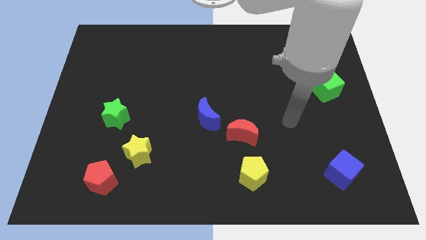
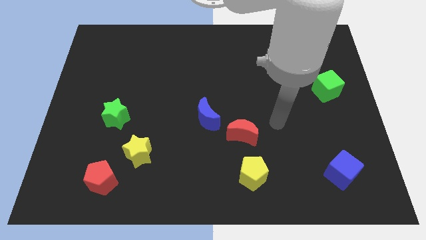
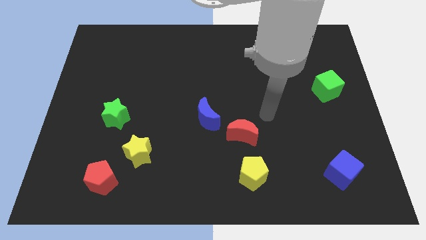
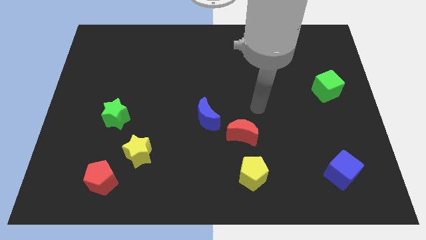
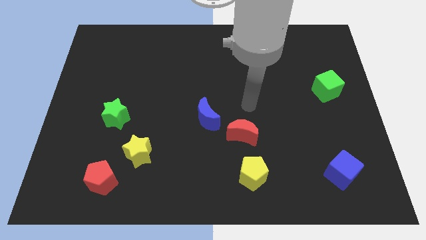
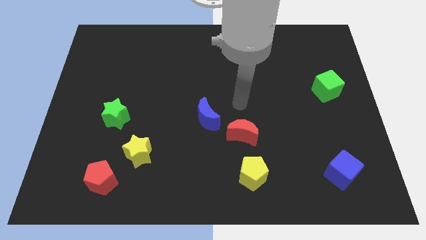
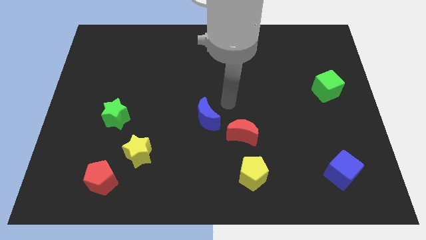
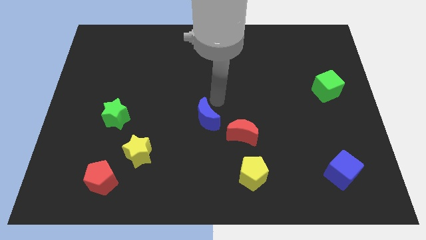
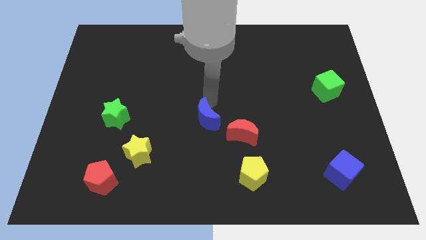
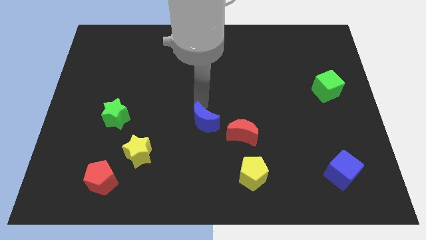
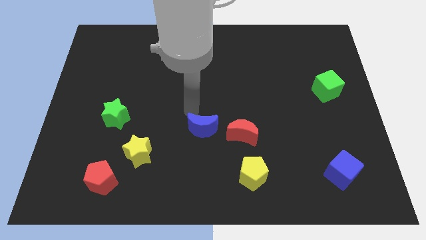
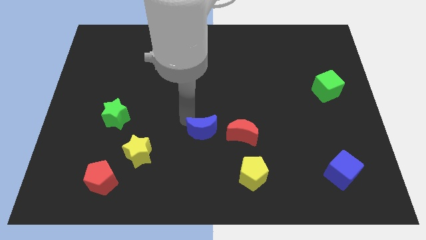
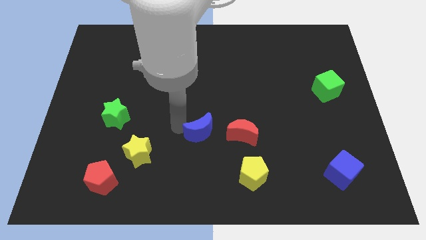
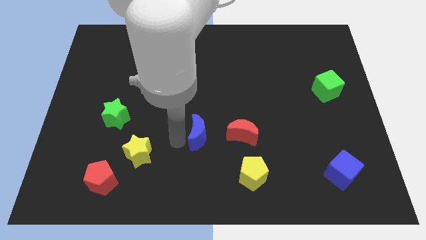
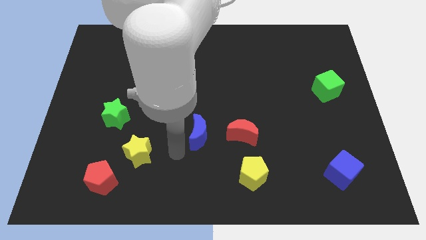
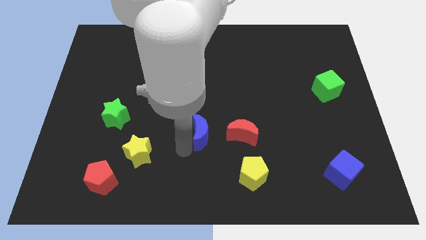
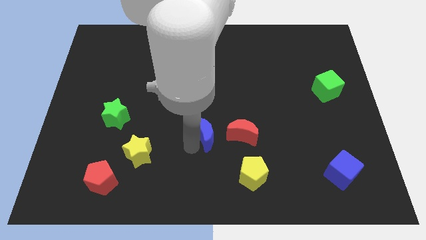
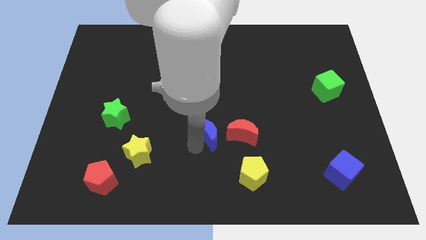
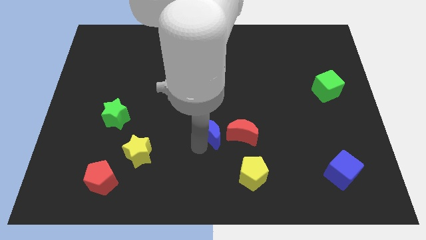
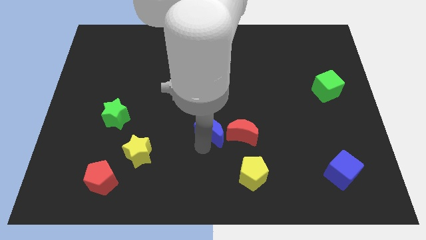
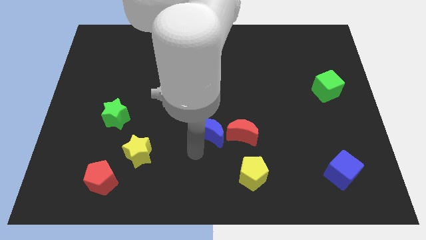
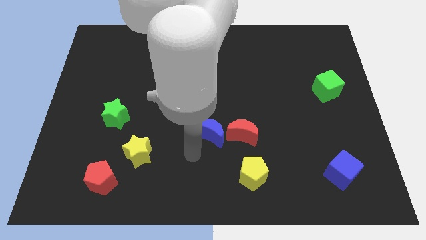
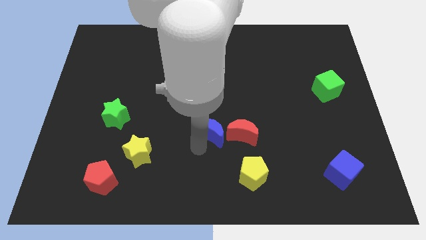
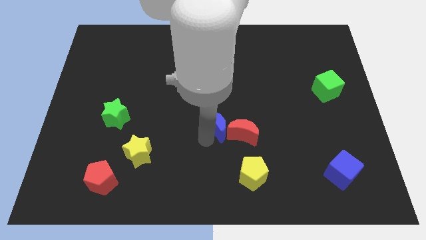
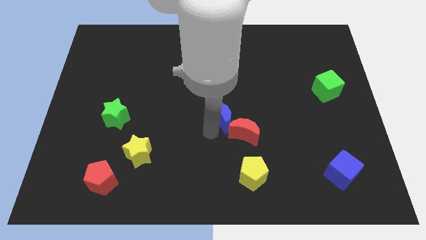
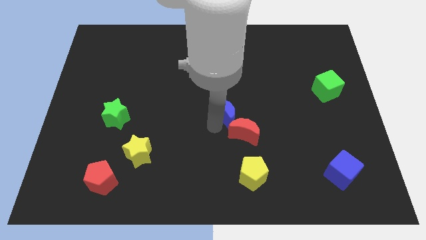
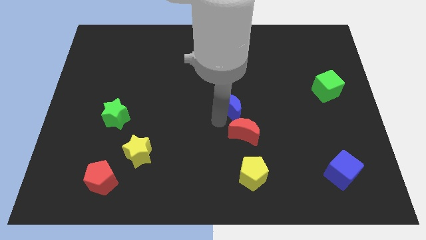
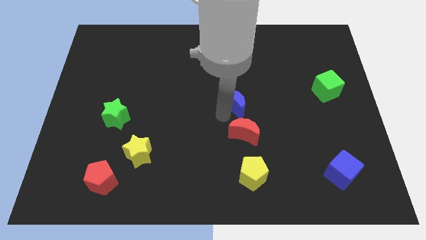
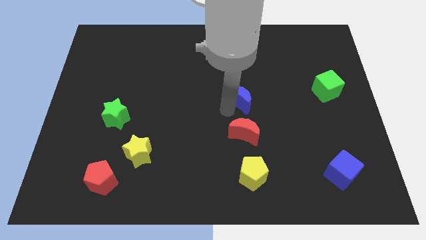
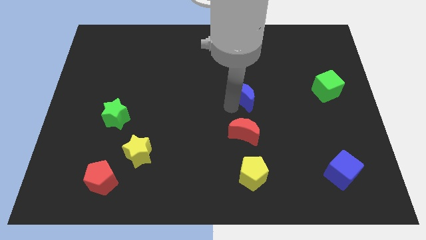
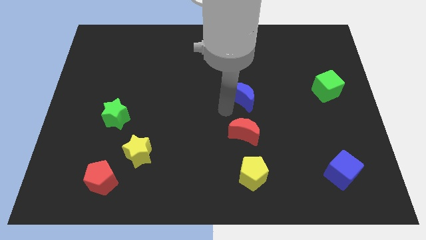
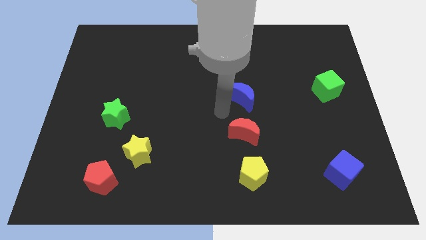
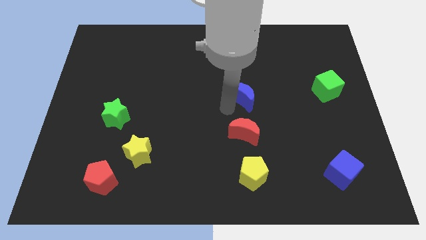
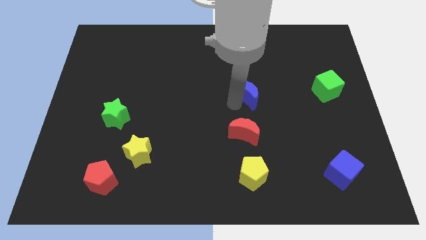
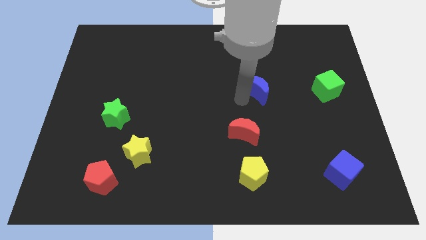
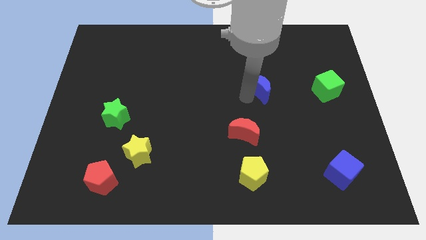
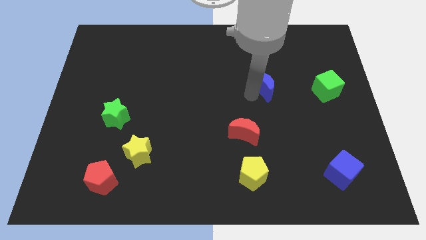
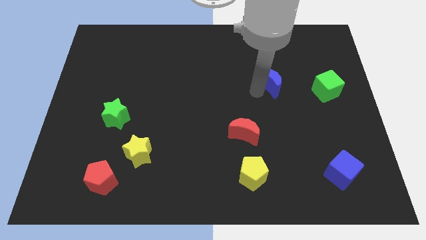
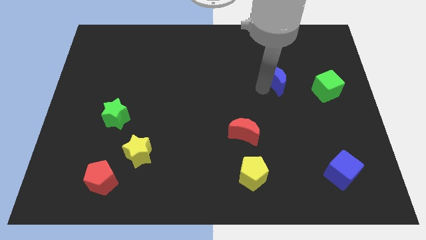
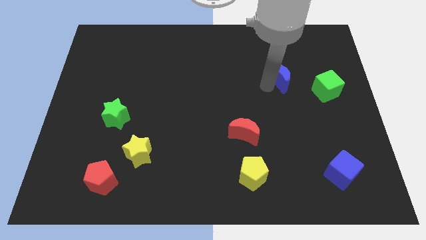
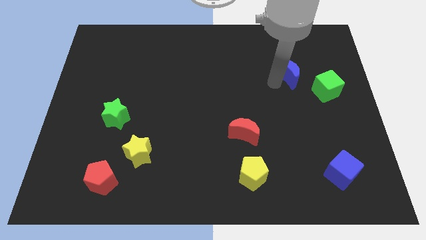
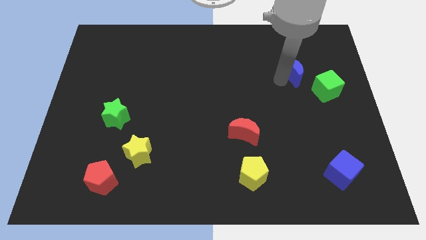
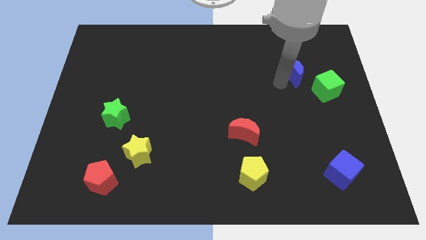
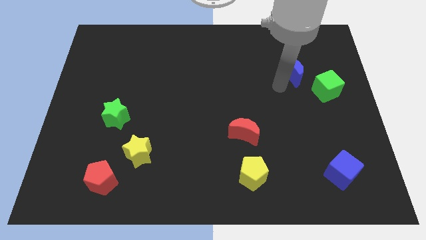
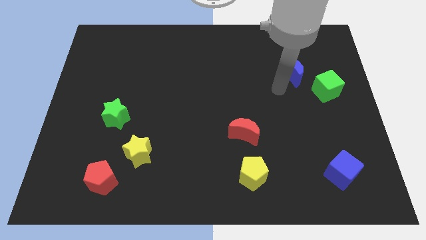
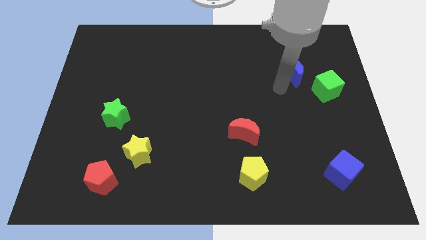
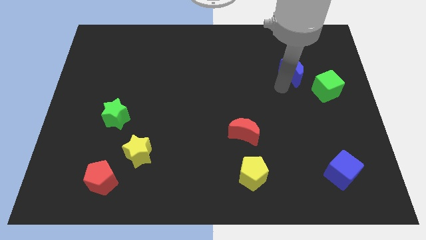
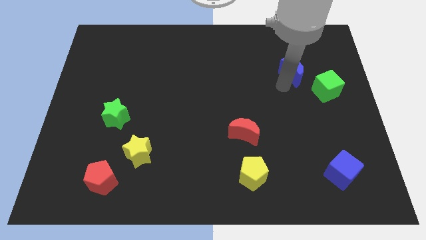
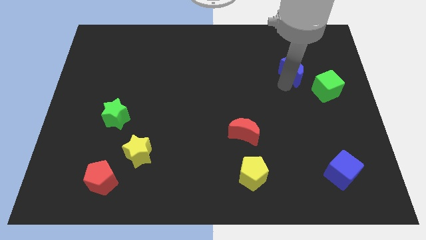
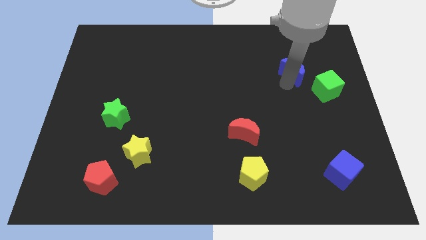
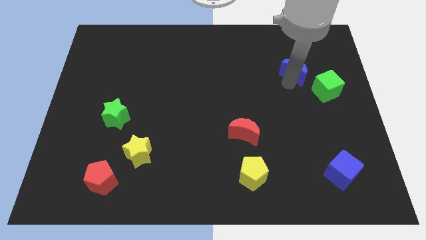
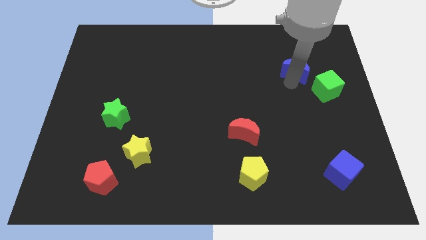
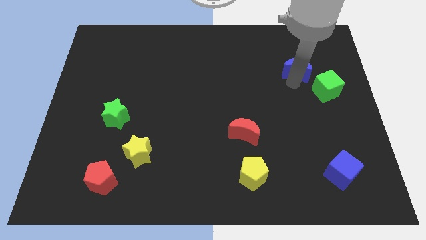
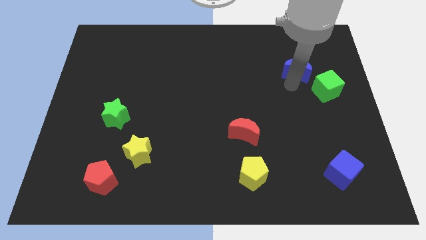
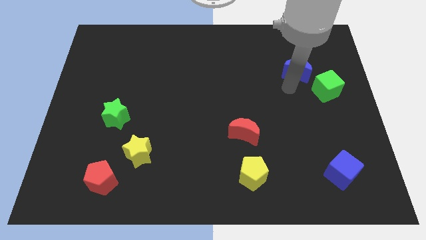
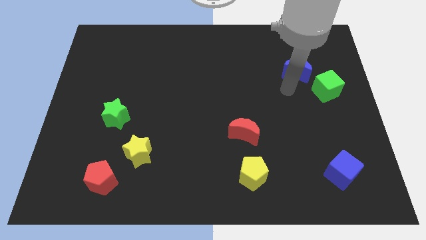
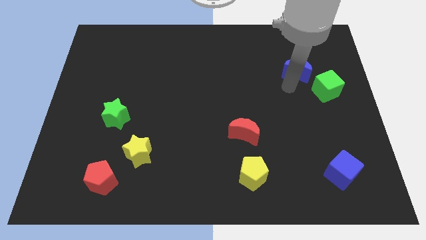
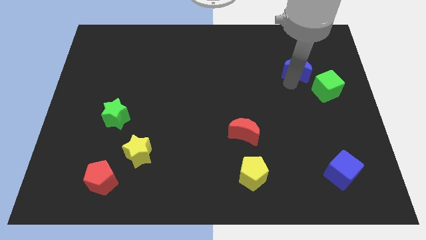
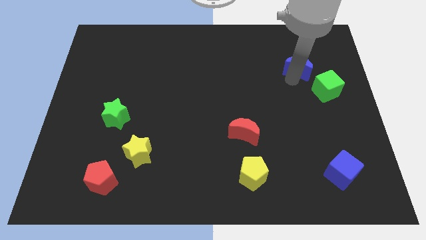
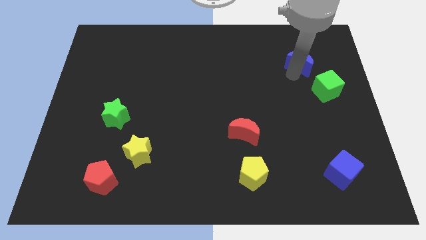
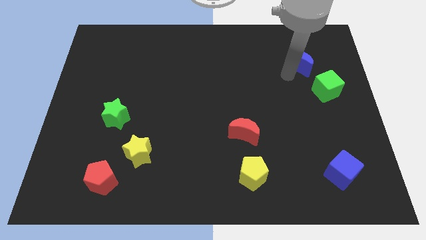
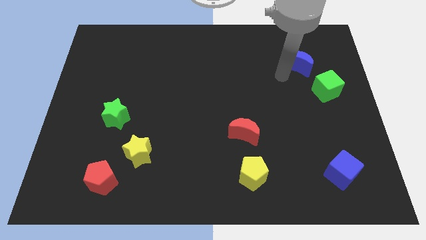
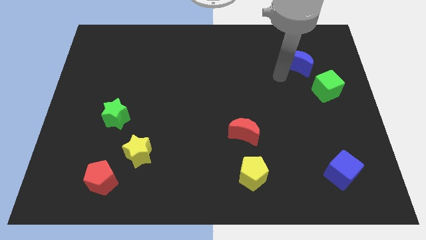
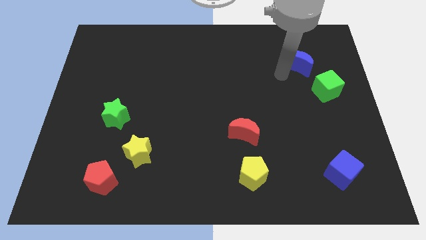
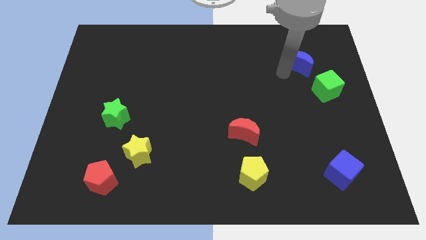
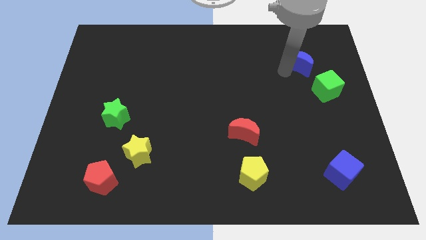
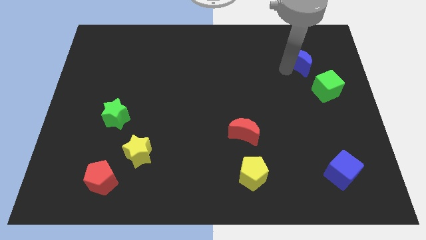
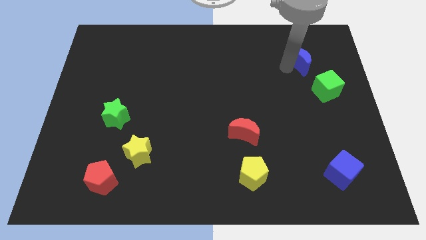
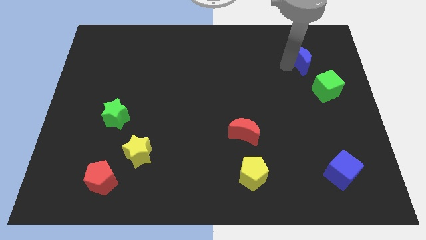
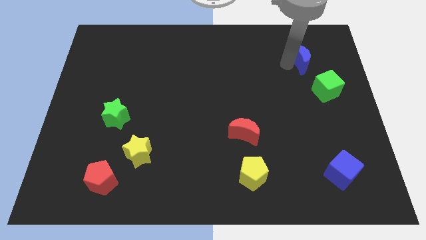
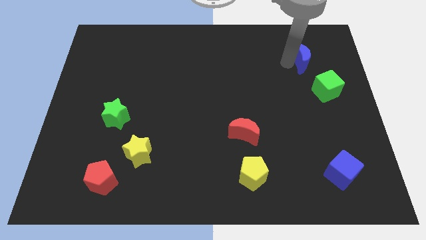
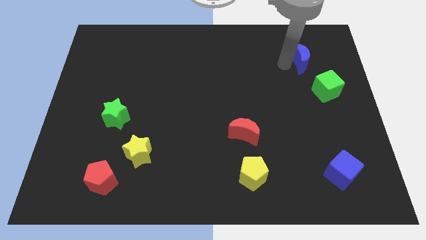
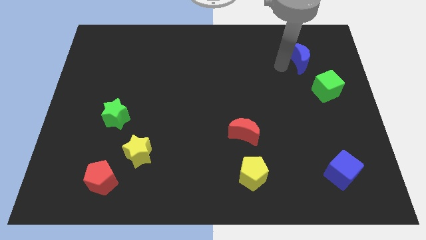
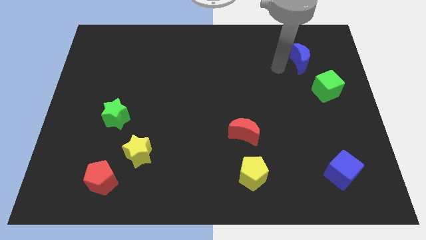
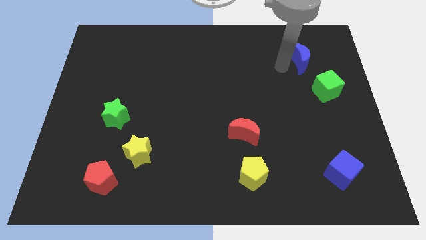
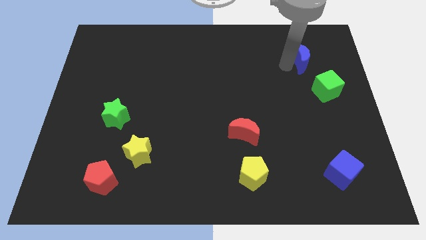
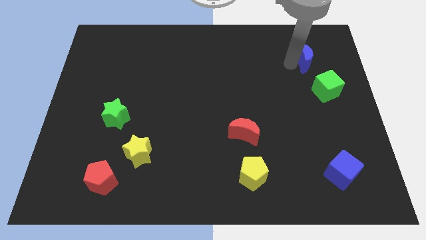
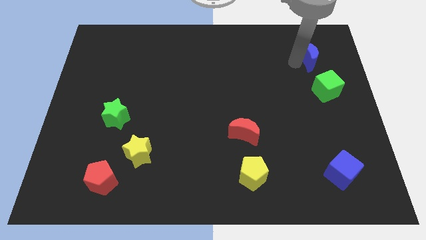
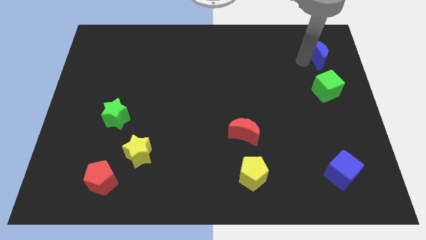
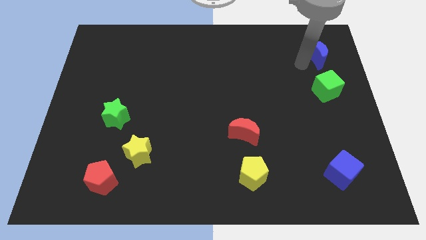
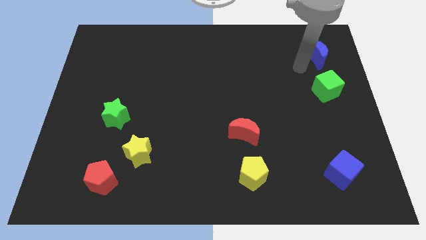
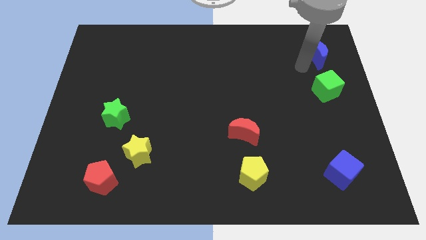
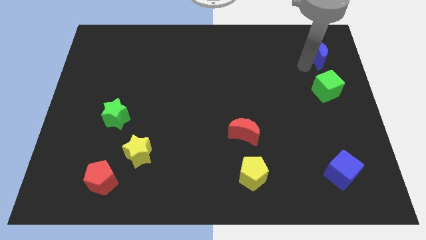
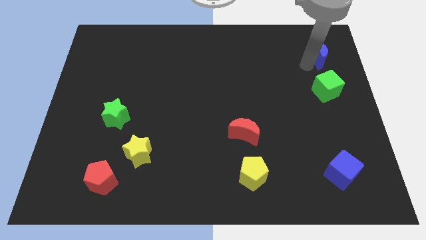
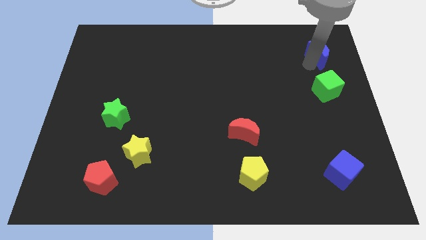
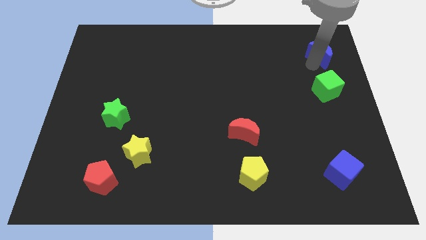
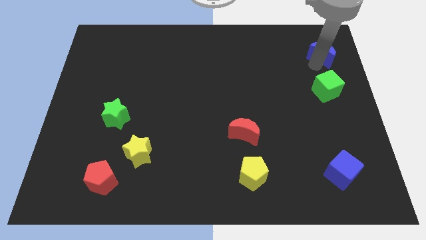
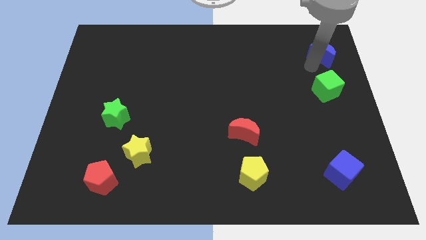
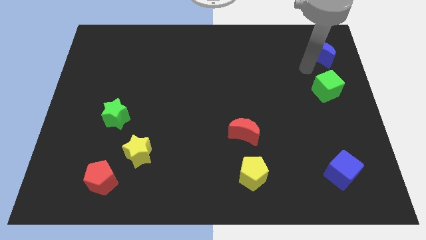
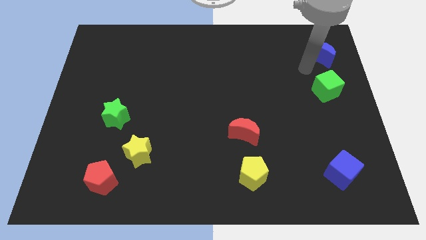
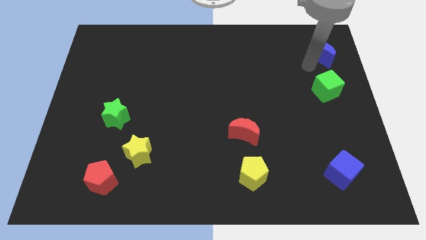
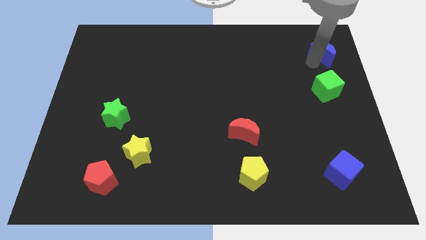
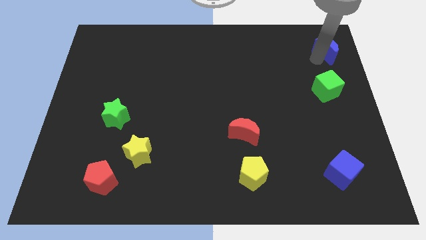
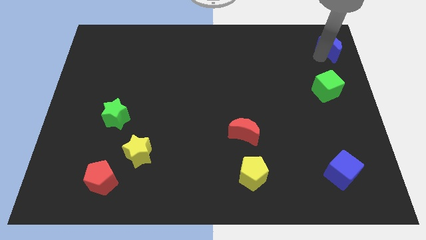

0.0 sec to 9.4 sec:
put the blue moon to the top right
